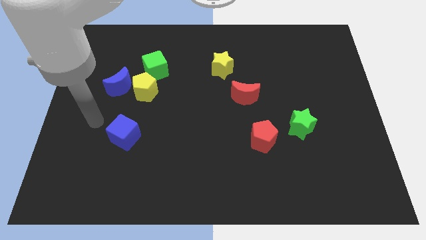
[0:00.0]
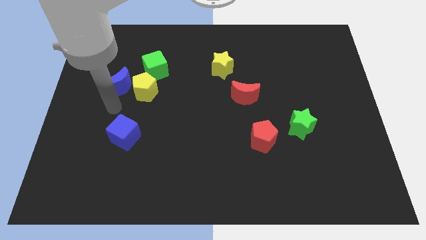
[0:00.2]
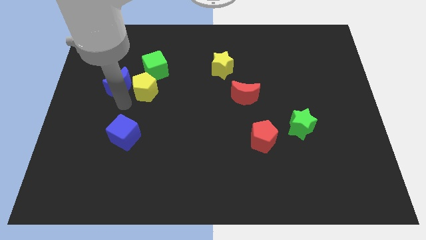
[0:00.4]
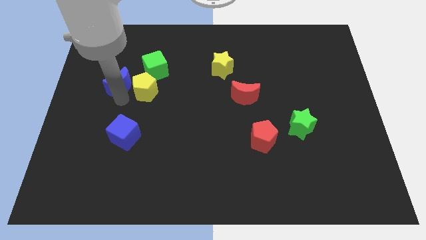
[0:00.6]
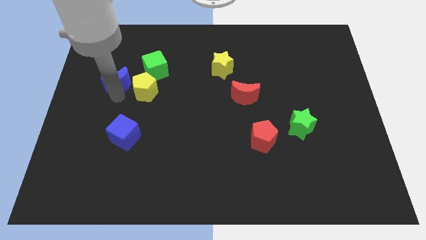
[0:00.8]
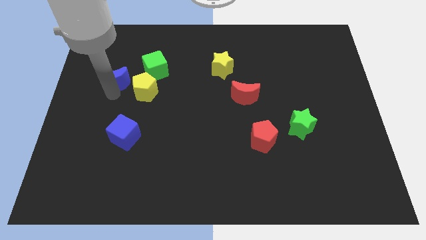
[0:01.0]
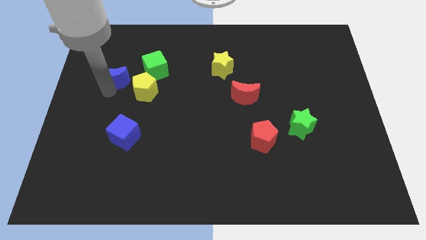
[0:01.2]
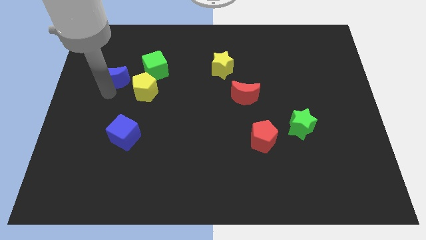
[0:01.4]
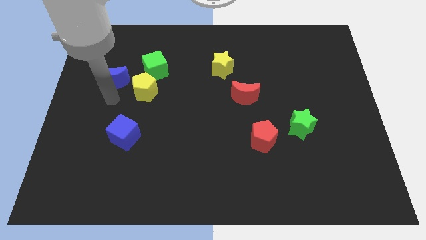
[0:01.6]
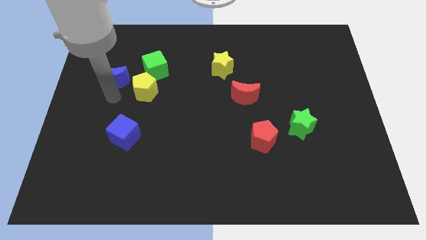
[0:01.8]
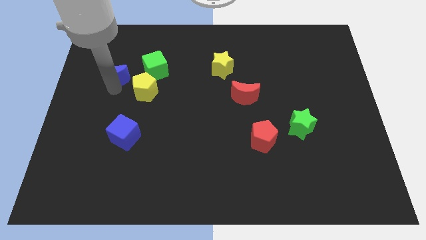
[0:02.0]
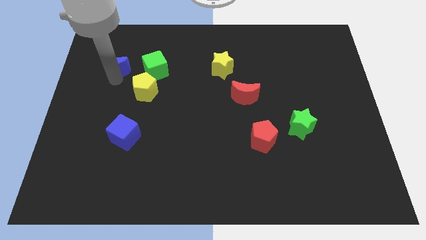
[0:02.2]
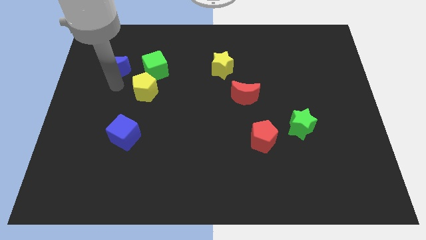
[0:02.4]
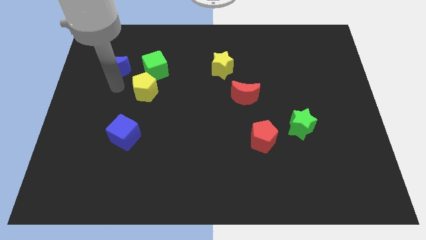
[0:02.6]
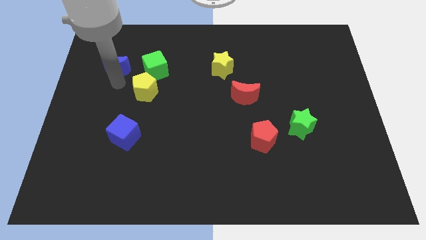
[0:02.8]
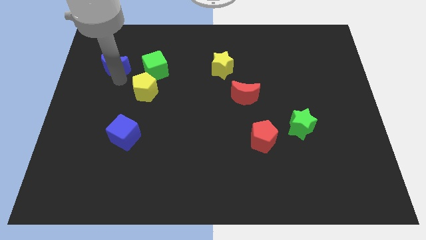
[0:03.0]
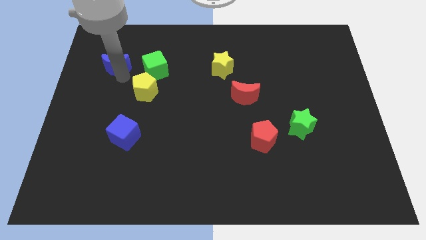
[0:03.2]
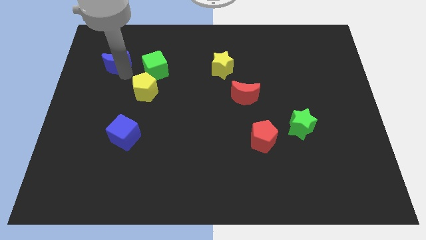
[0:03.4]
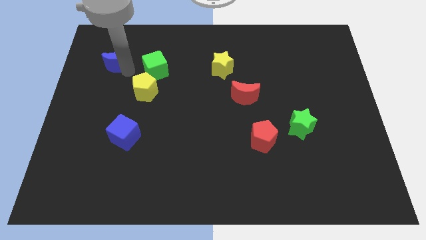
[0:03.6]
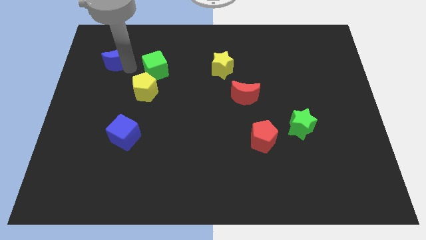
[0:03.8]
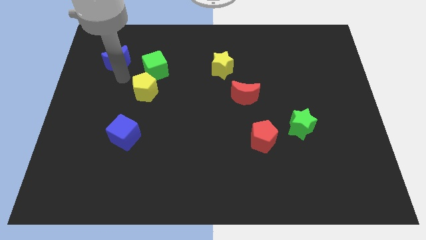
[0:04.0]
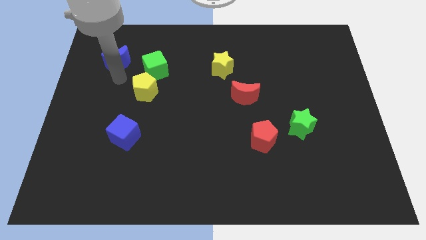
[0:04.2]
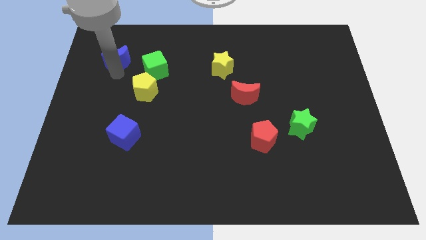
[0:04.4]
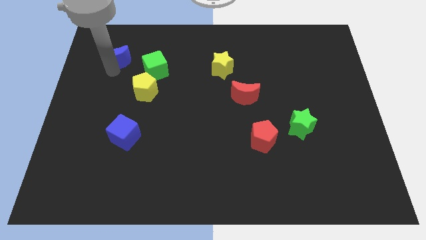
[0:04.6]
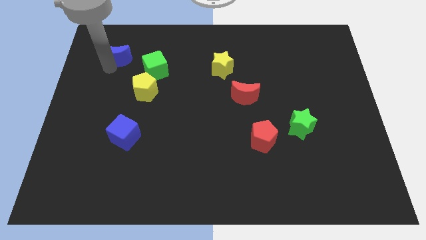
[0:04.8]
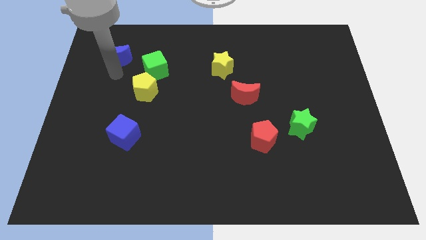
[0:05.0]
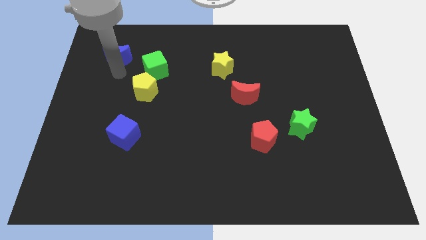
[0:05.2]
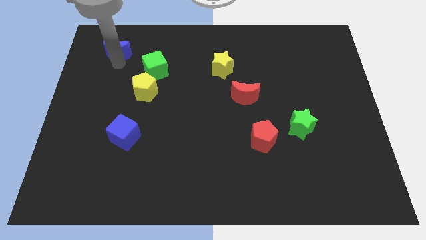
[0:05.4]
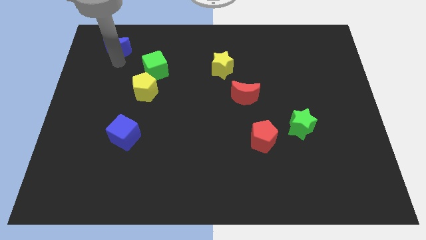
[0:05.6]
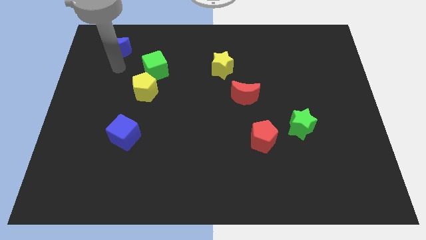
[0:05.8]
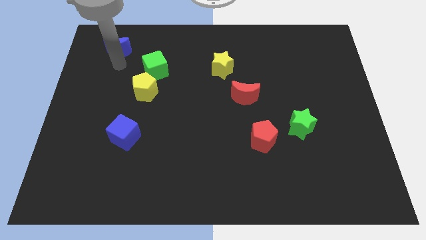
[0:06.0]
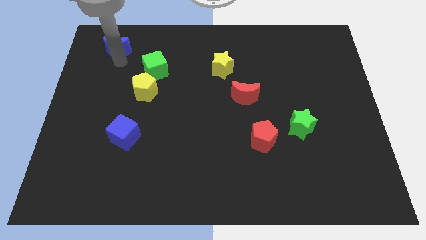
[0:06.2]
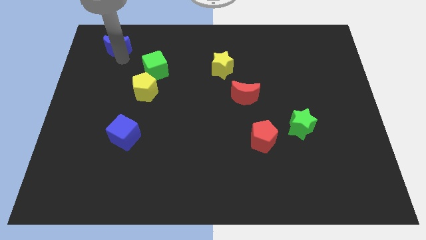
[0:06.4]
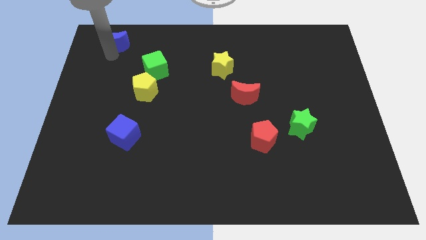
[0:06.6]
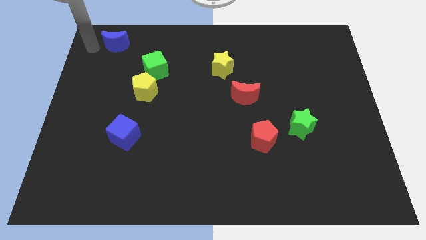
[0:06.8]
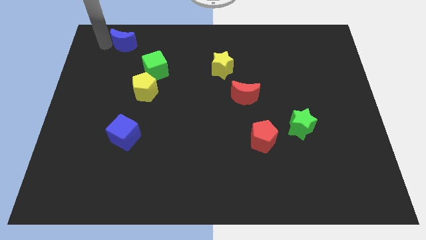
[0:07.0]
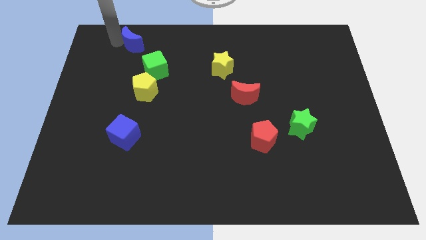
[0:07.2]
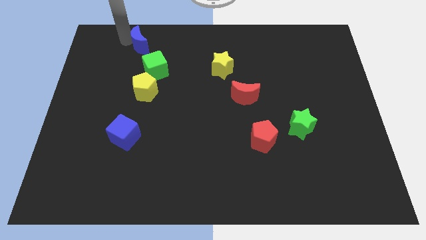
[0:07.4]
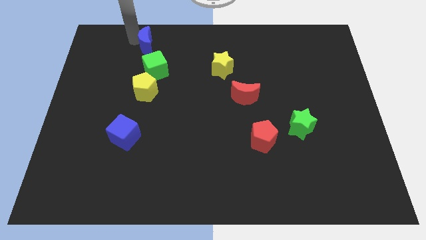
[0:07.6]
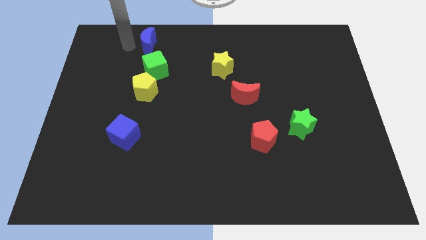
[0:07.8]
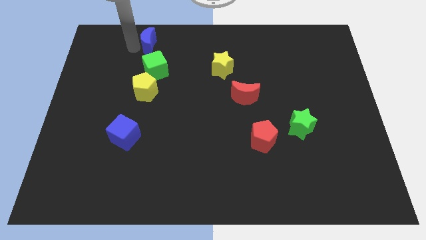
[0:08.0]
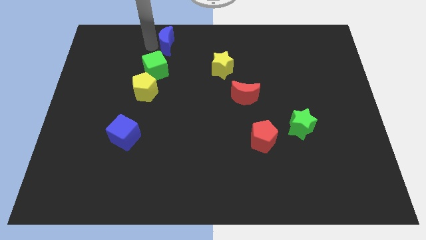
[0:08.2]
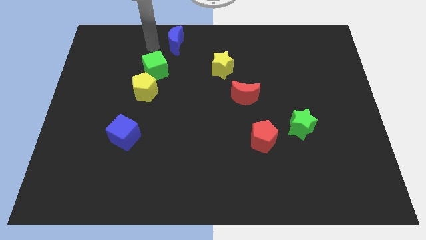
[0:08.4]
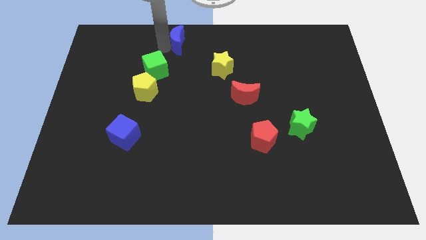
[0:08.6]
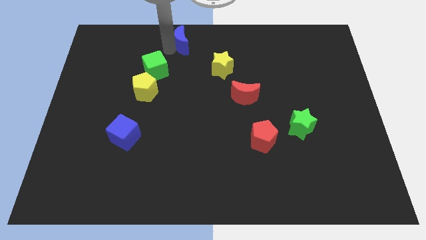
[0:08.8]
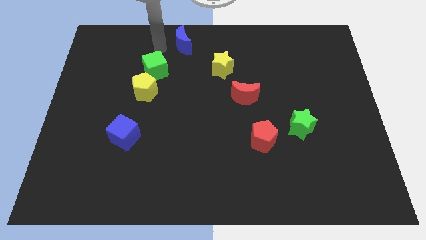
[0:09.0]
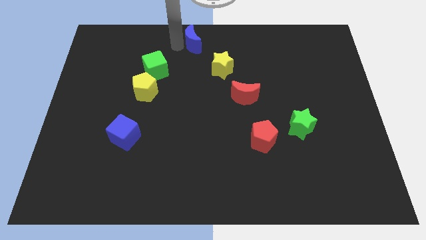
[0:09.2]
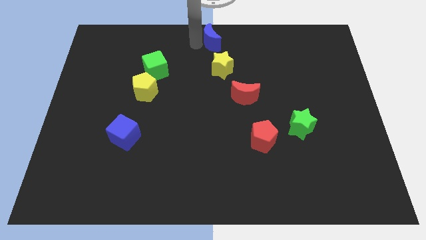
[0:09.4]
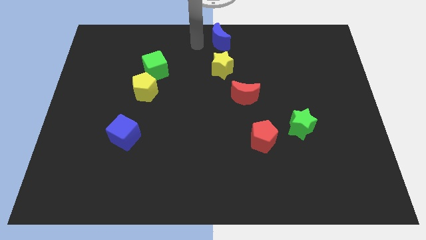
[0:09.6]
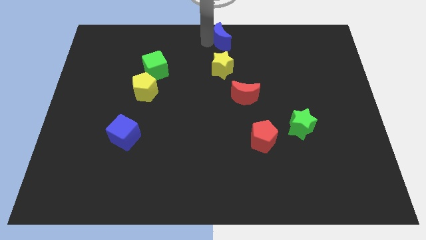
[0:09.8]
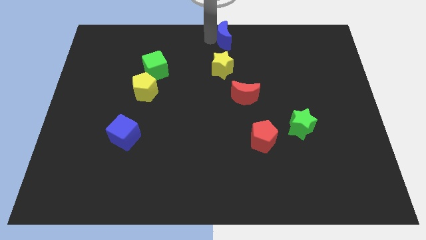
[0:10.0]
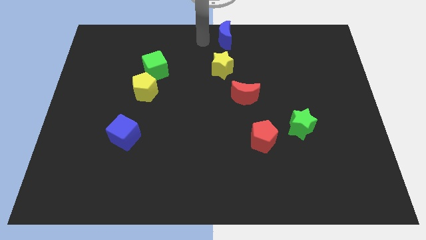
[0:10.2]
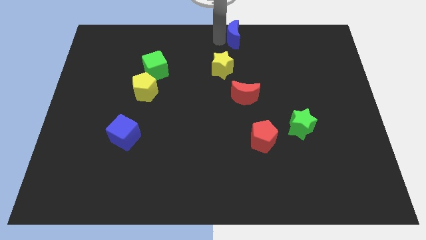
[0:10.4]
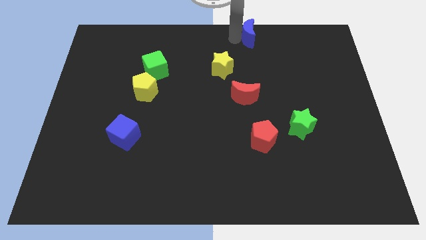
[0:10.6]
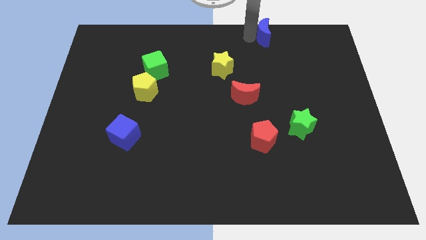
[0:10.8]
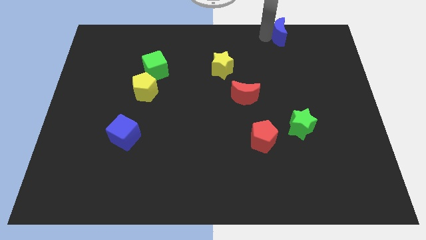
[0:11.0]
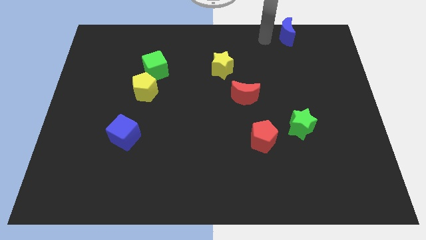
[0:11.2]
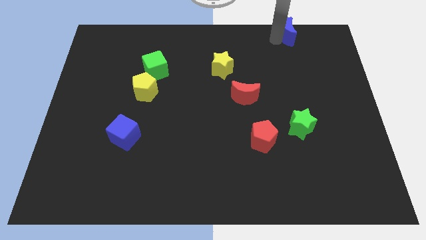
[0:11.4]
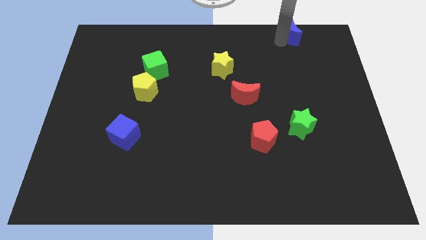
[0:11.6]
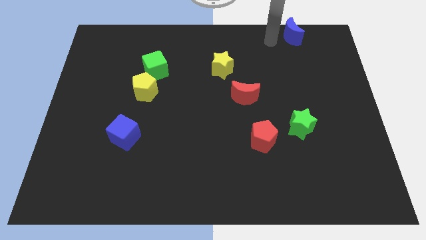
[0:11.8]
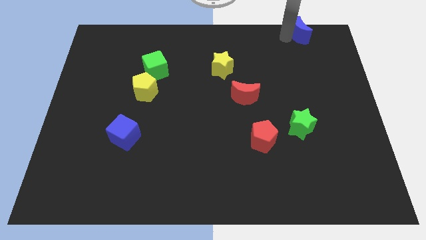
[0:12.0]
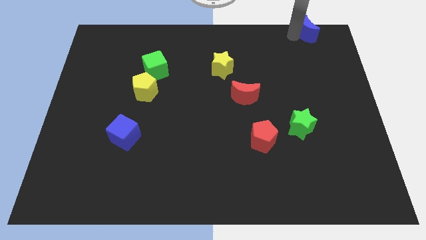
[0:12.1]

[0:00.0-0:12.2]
push the blue moon to the top right of the board

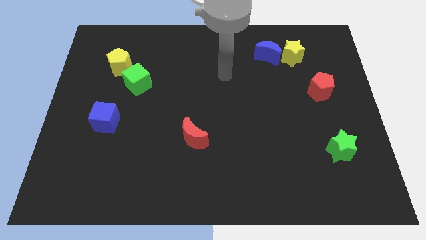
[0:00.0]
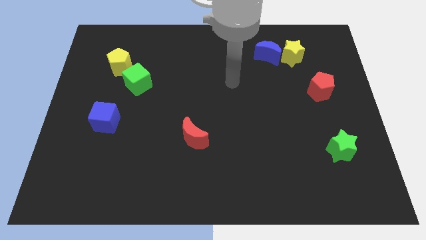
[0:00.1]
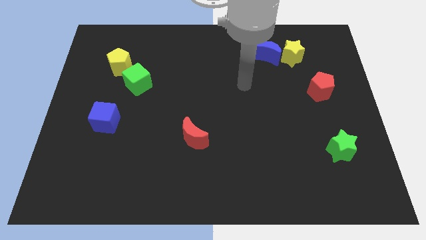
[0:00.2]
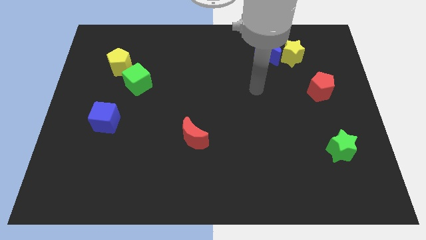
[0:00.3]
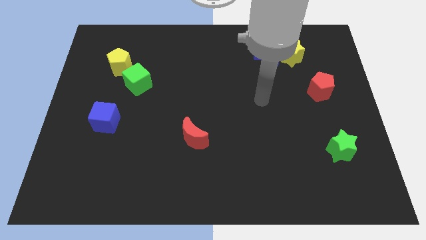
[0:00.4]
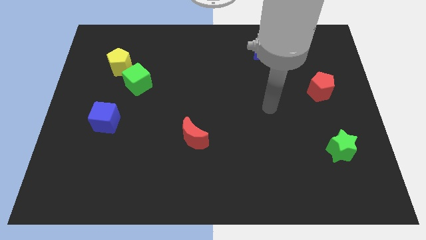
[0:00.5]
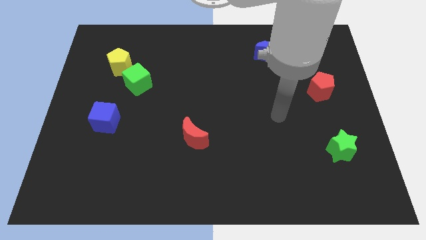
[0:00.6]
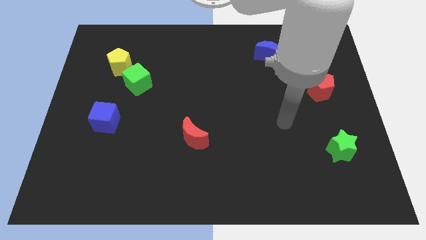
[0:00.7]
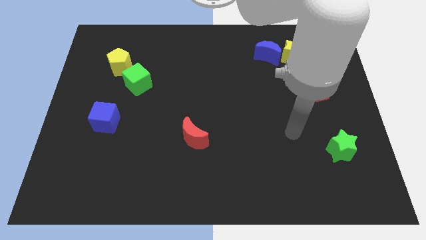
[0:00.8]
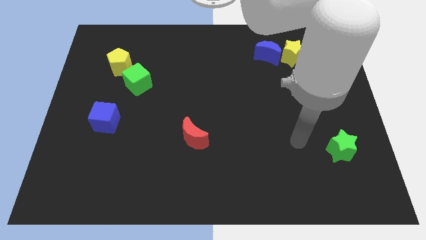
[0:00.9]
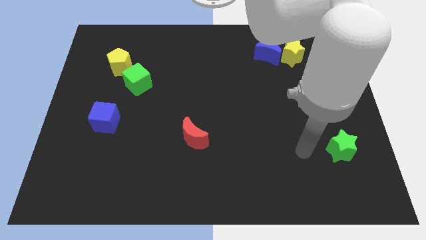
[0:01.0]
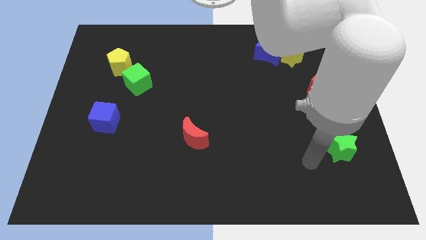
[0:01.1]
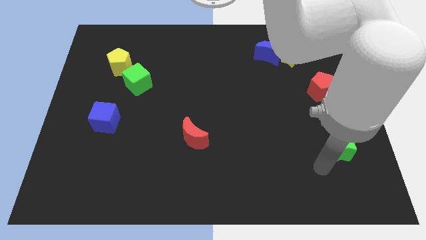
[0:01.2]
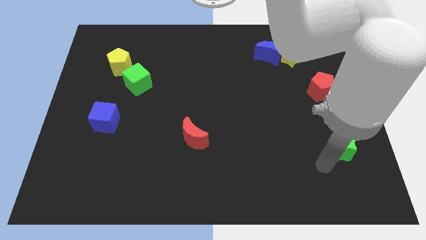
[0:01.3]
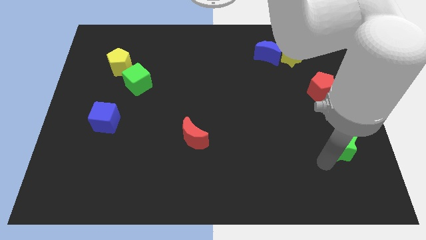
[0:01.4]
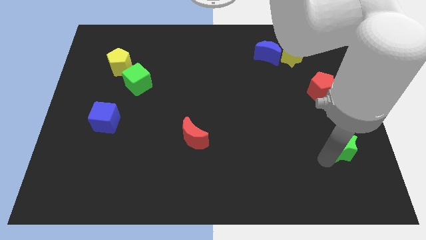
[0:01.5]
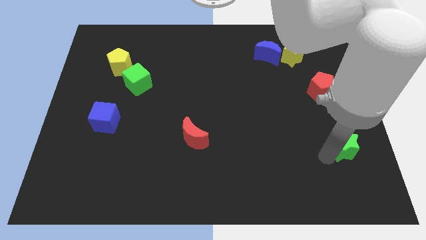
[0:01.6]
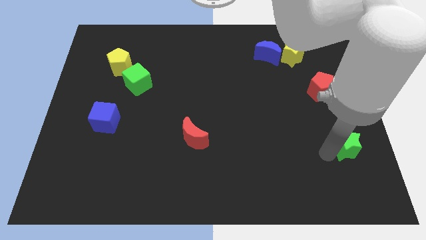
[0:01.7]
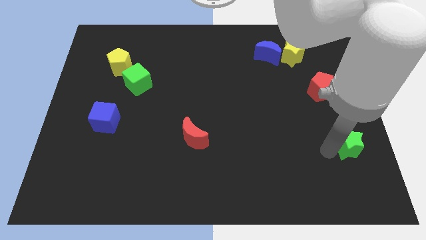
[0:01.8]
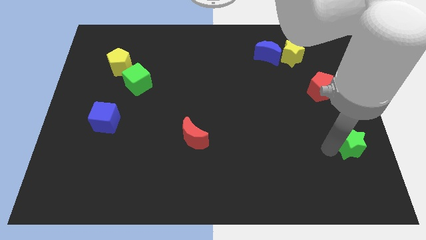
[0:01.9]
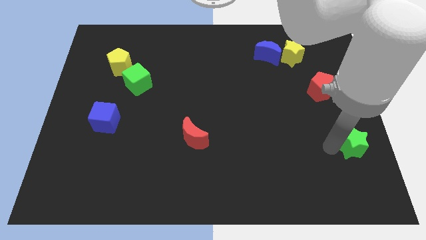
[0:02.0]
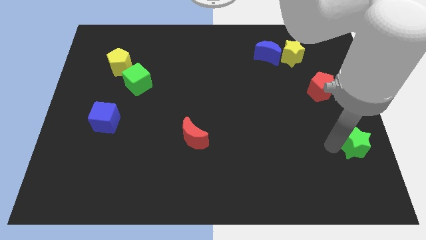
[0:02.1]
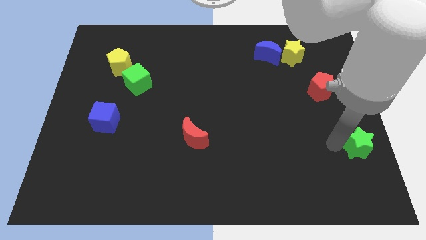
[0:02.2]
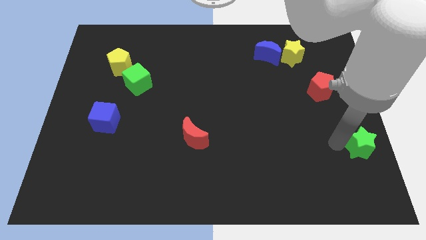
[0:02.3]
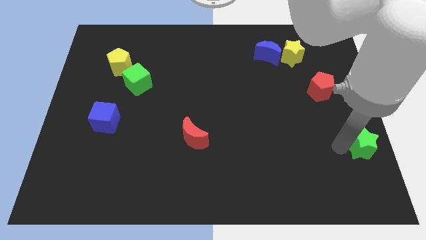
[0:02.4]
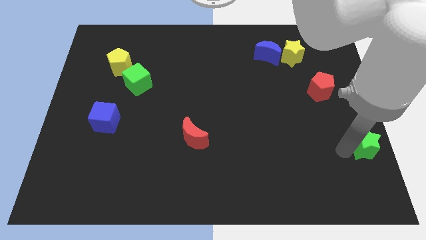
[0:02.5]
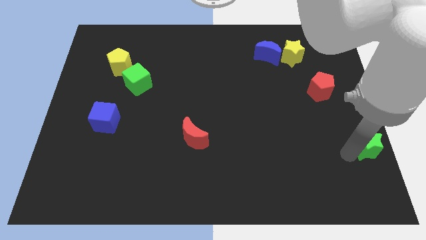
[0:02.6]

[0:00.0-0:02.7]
move the green star to the center right
